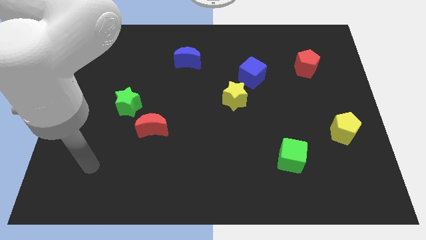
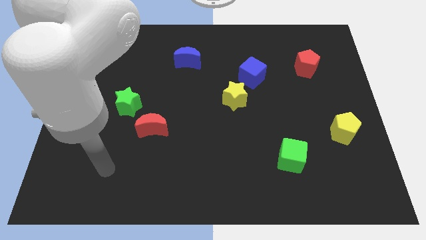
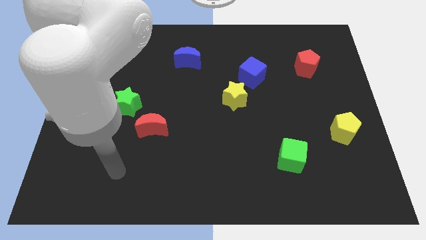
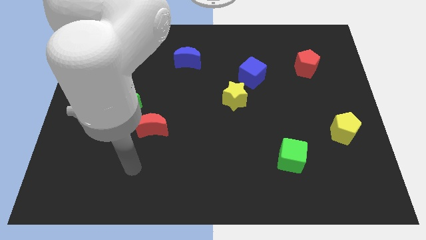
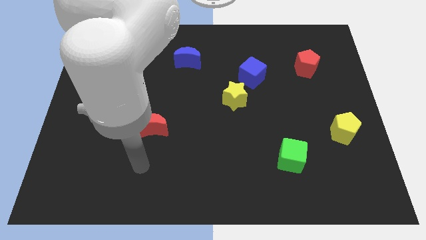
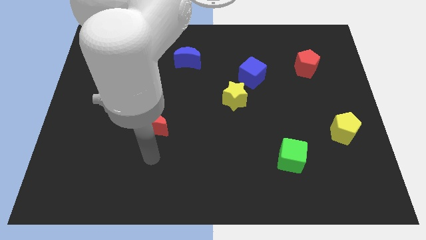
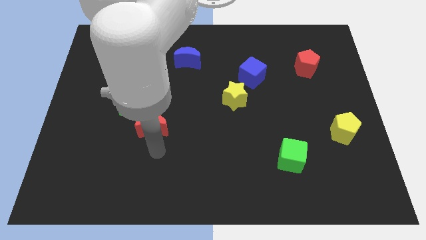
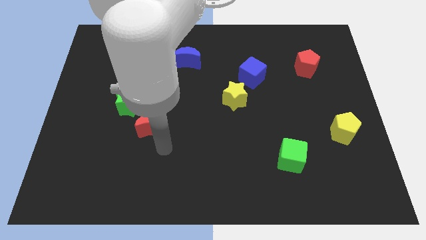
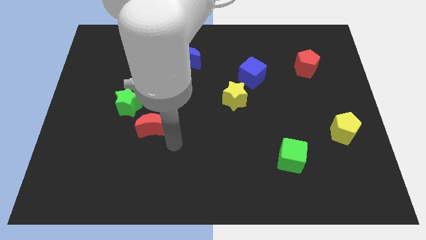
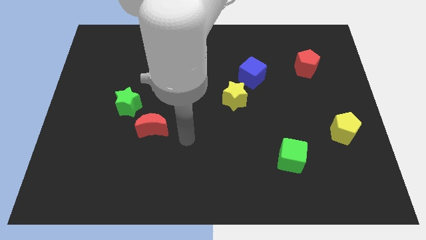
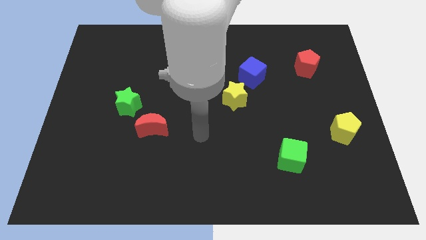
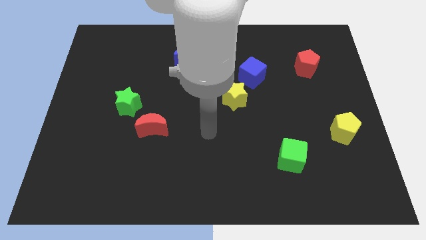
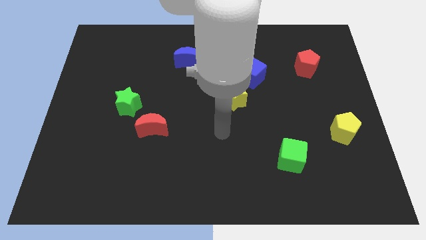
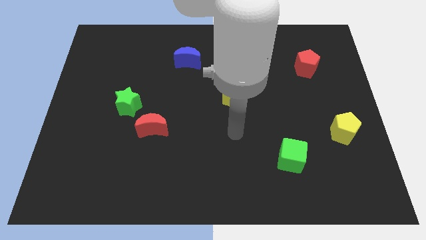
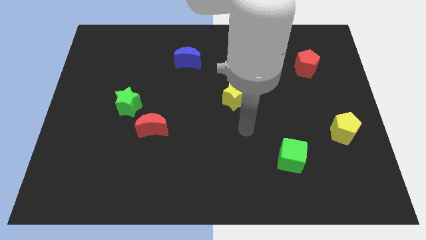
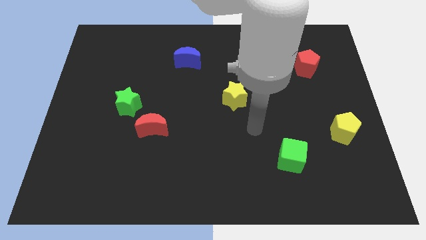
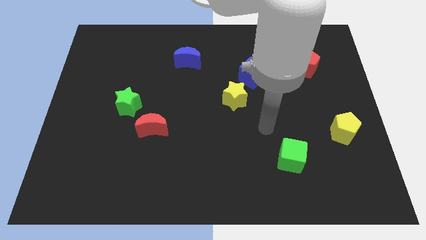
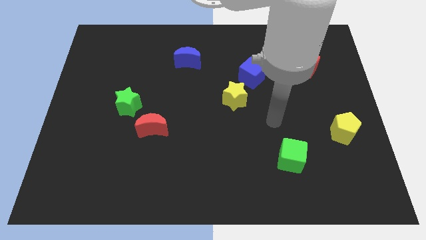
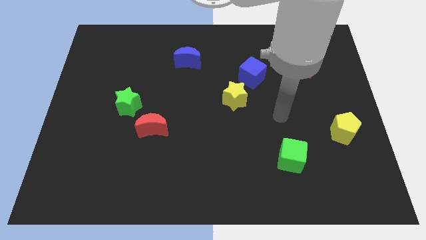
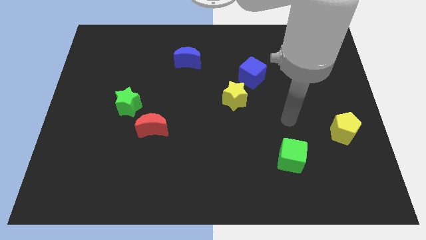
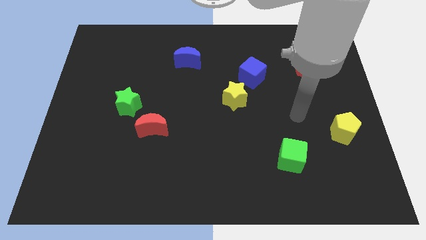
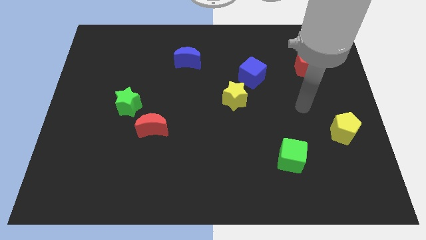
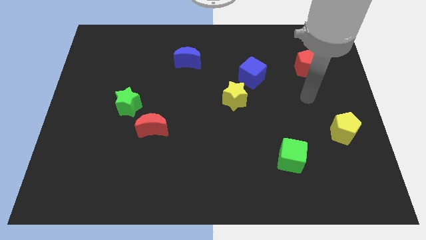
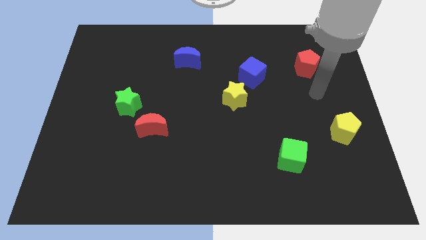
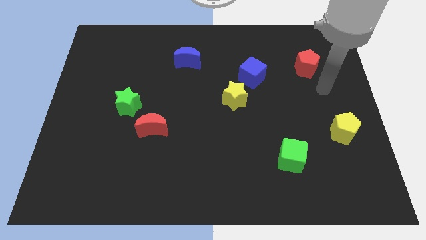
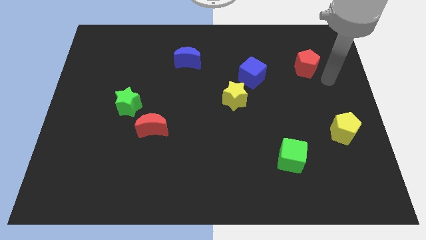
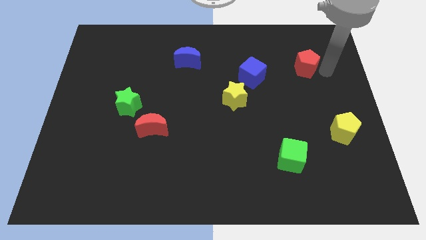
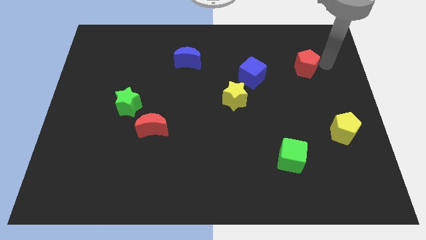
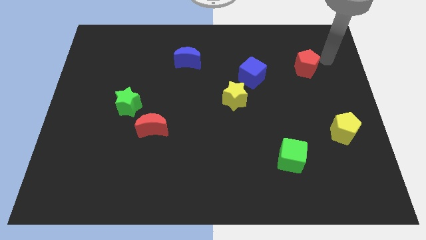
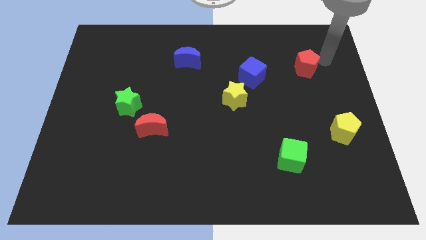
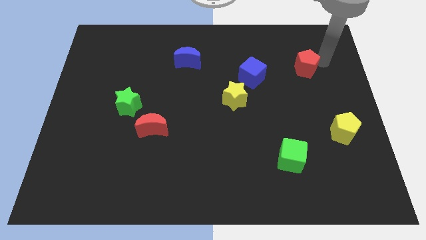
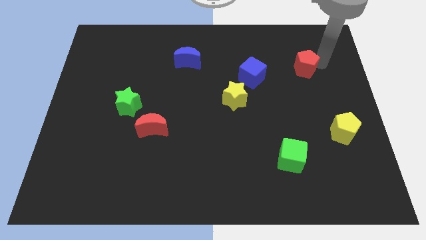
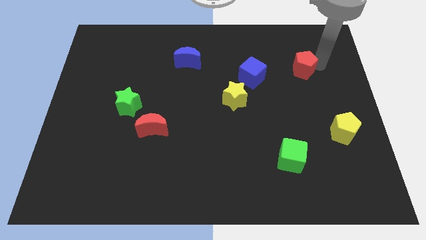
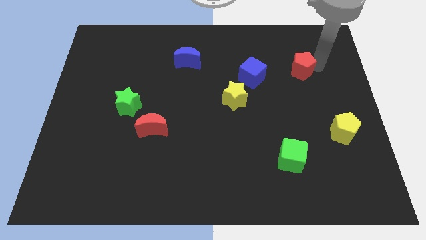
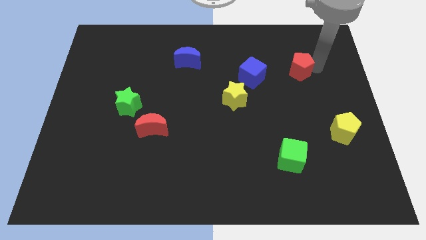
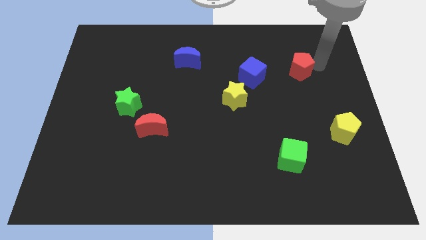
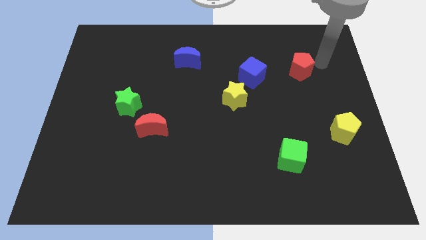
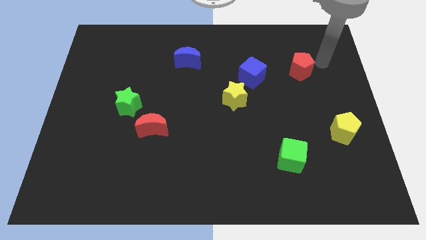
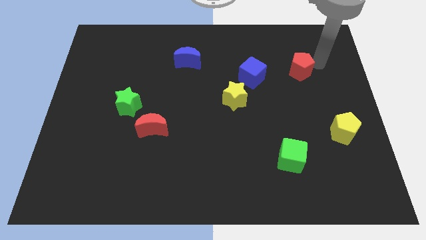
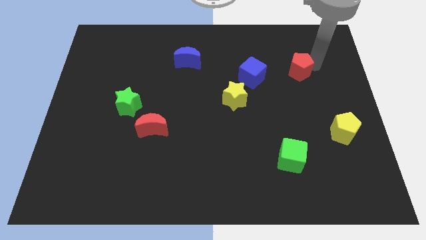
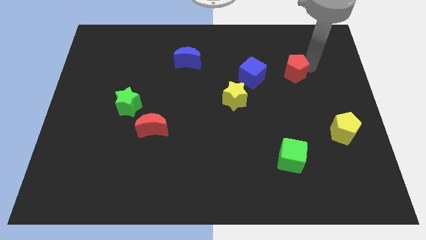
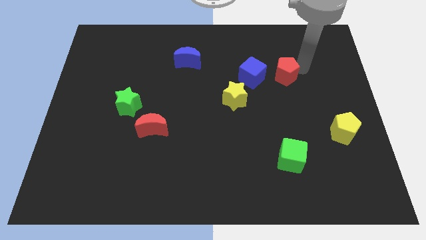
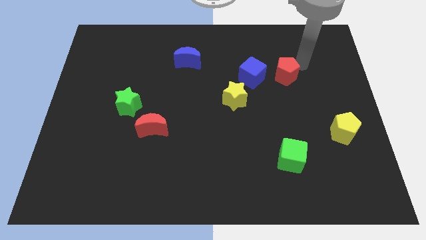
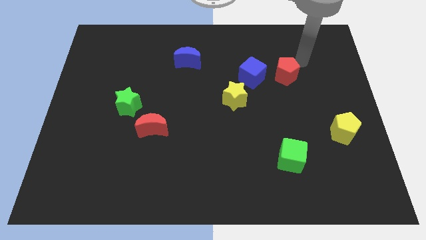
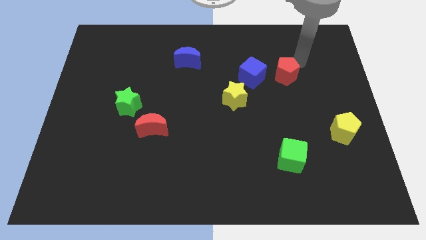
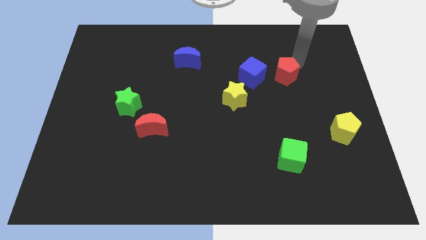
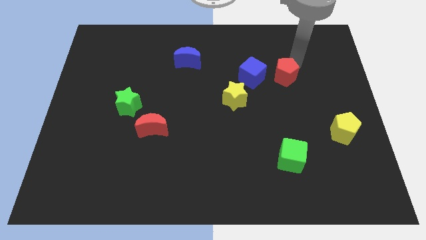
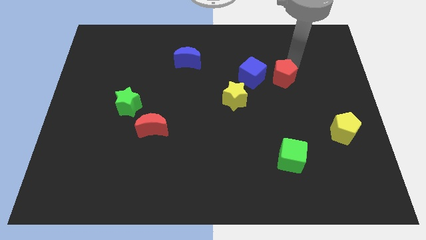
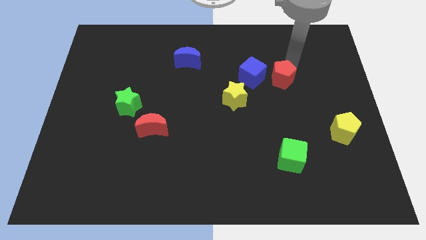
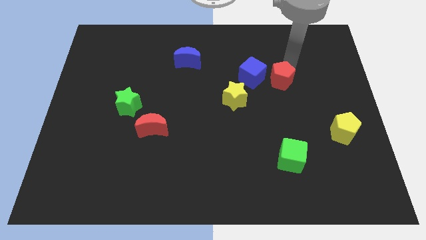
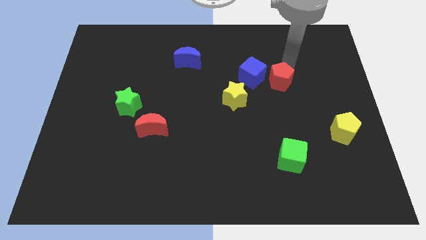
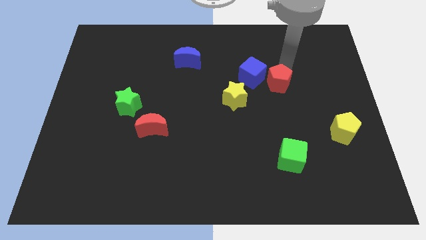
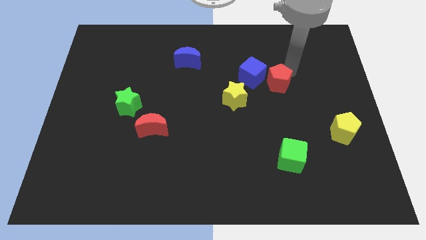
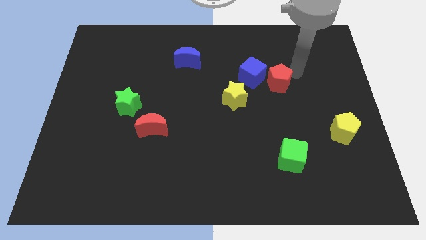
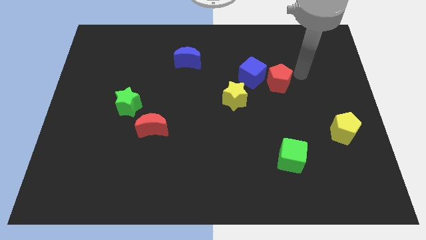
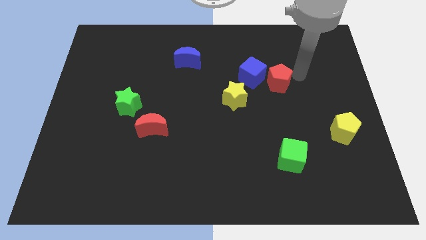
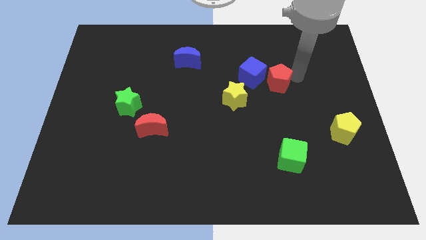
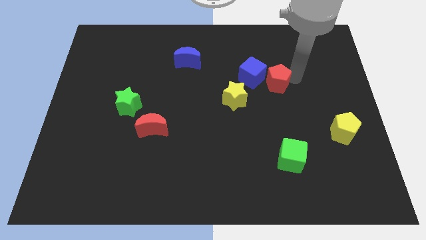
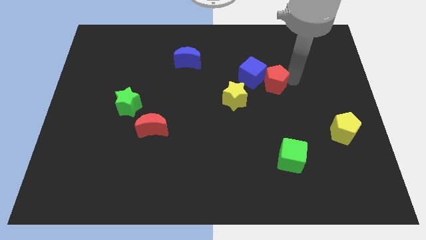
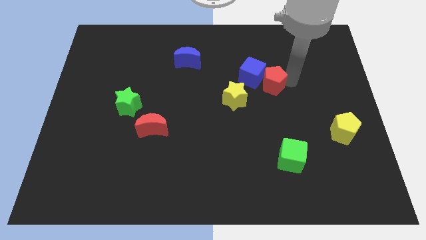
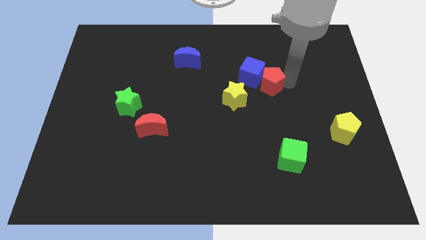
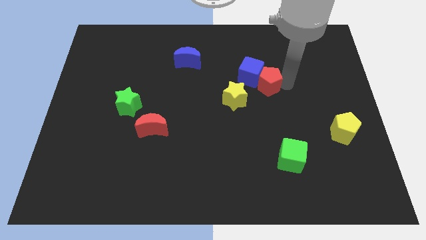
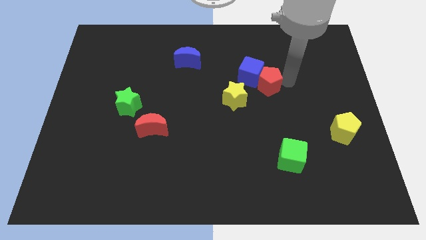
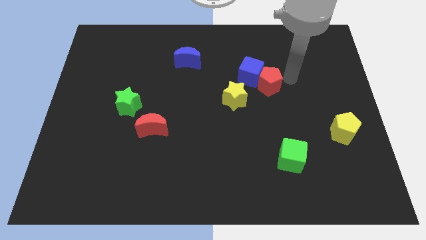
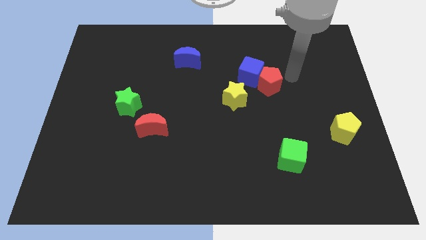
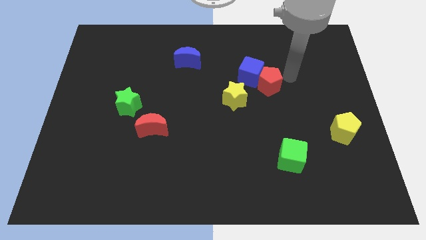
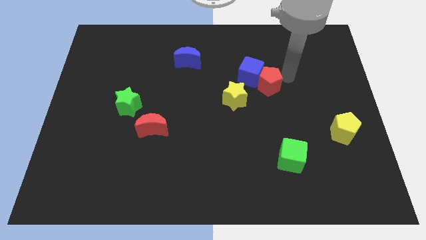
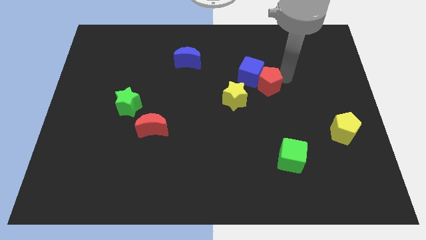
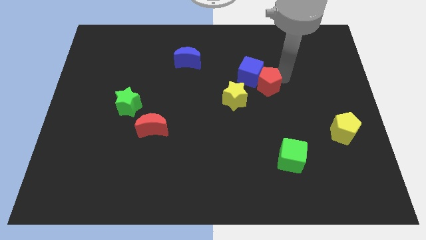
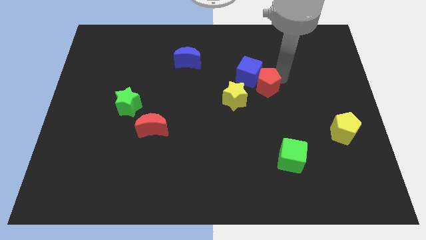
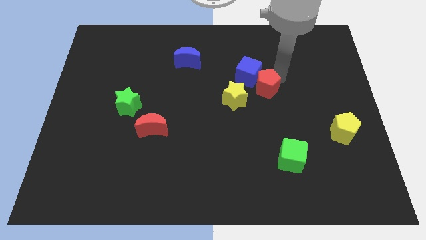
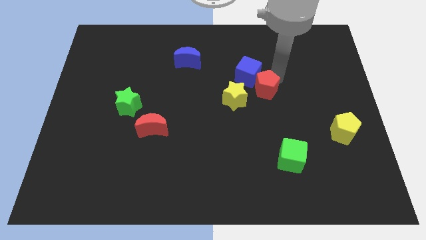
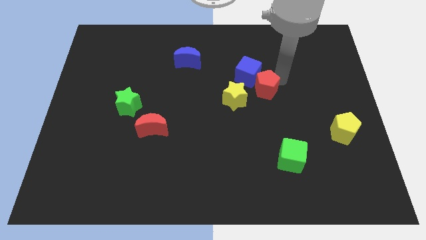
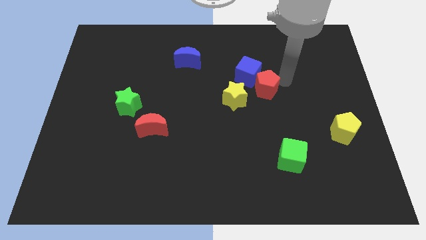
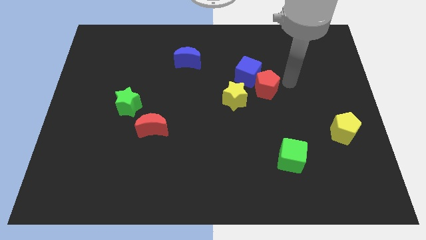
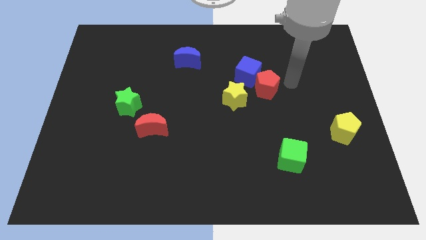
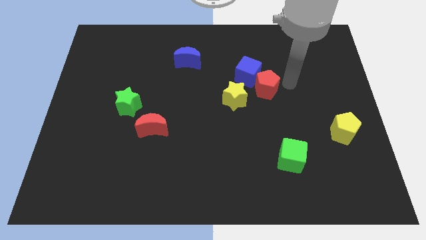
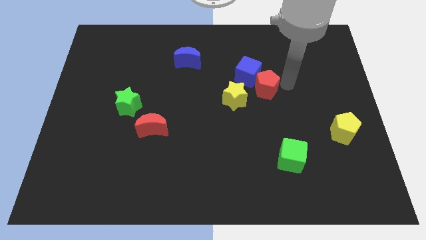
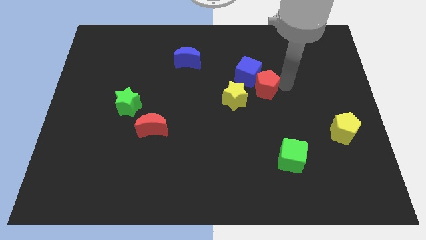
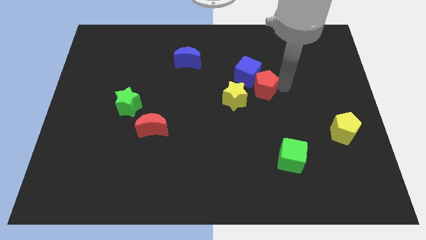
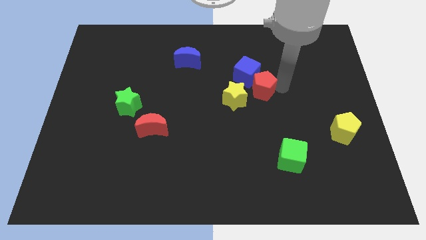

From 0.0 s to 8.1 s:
move the red pentagon to the middle of the board

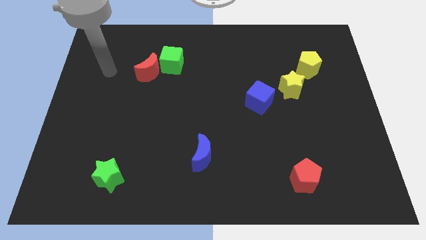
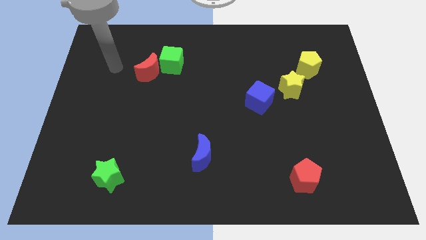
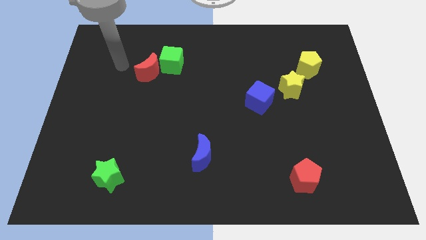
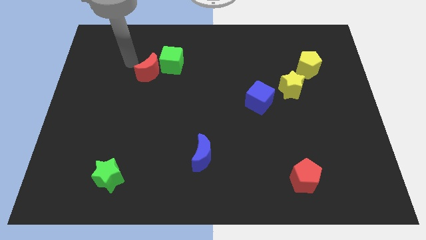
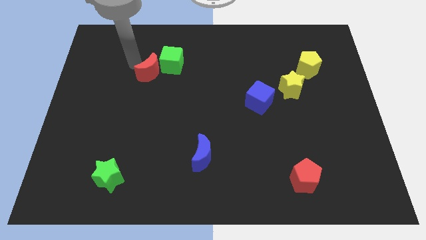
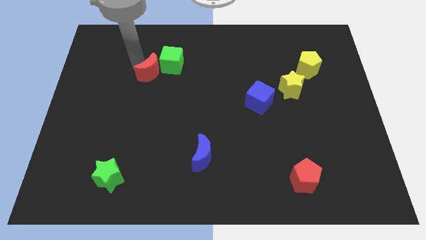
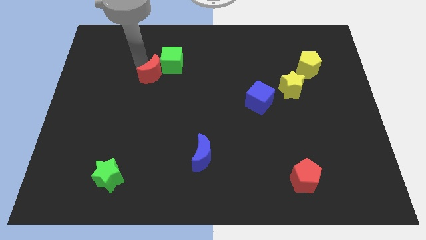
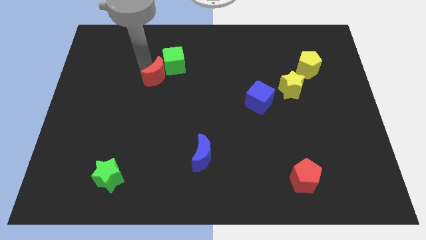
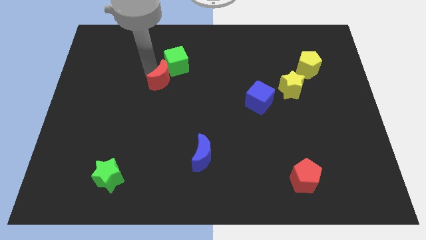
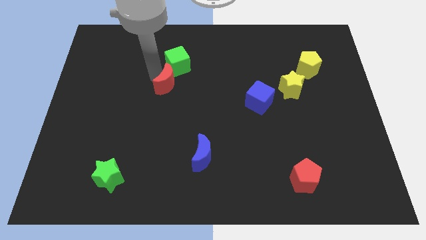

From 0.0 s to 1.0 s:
move the red moon to the center
